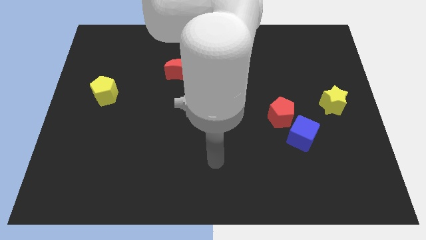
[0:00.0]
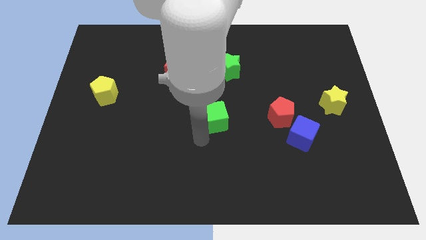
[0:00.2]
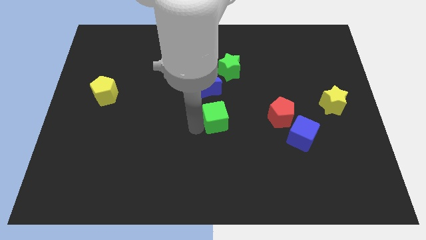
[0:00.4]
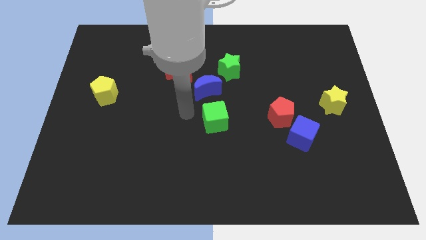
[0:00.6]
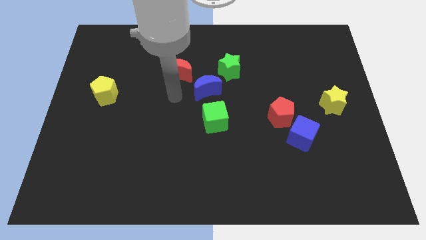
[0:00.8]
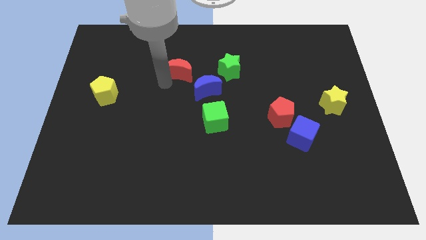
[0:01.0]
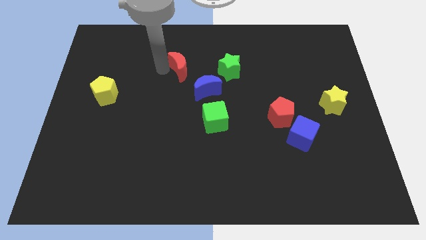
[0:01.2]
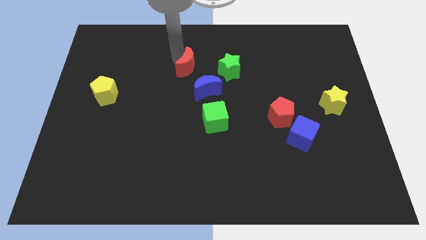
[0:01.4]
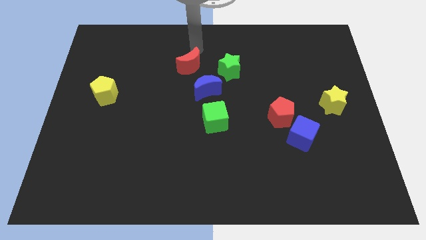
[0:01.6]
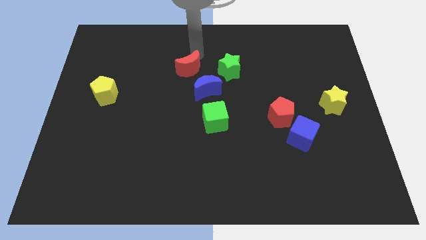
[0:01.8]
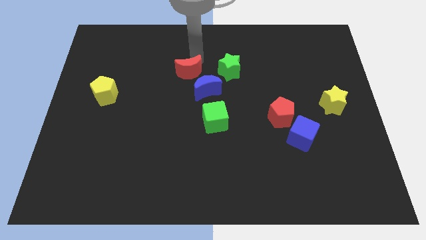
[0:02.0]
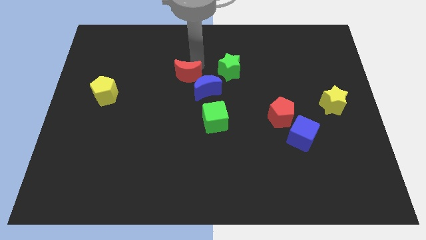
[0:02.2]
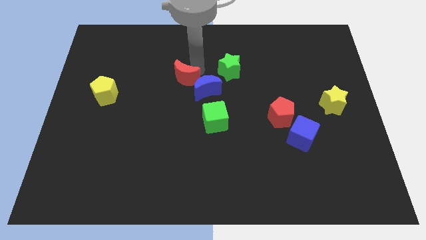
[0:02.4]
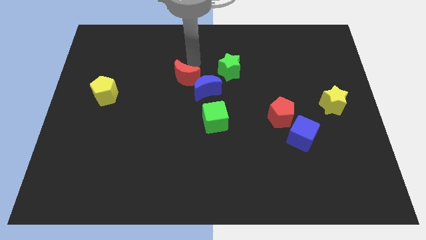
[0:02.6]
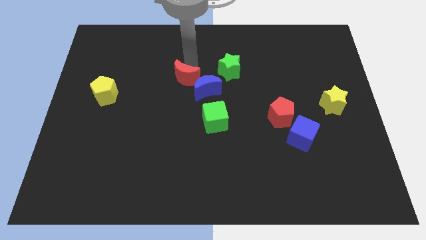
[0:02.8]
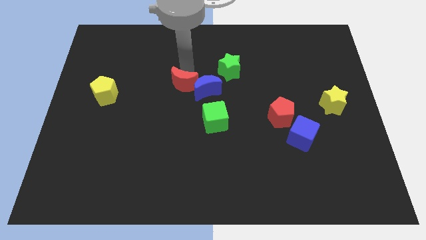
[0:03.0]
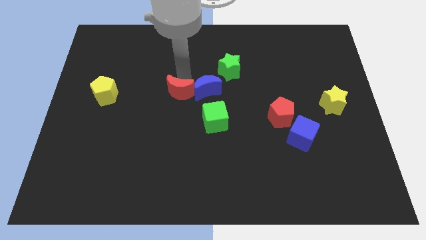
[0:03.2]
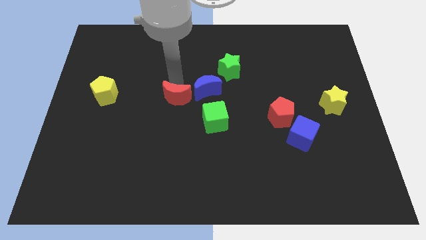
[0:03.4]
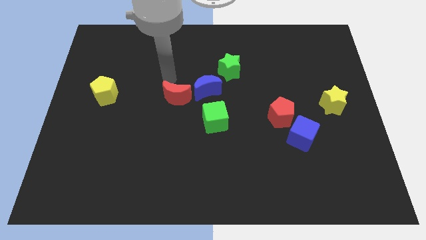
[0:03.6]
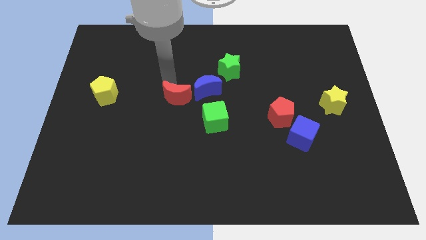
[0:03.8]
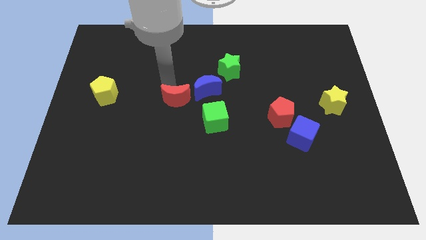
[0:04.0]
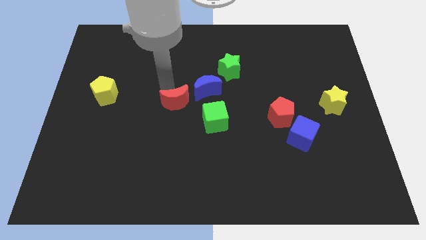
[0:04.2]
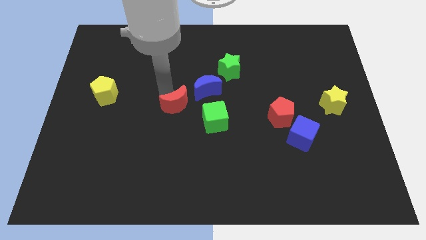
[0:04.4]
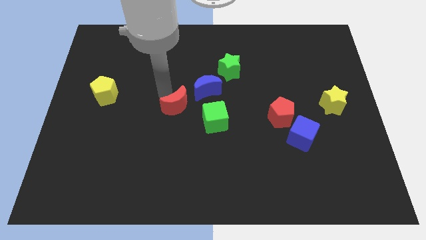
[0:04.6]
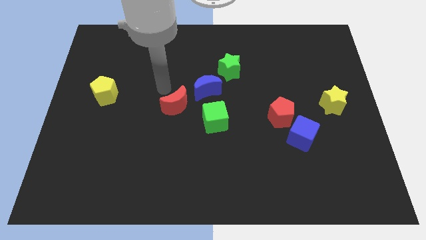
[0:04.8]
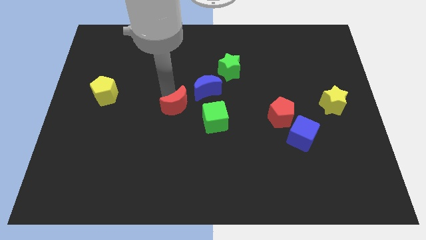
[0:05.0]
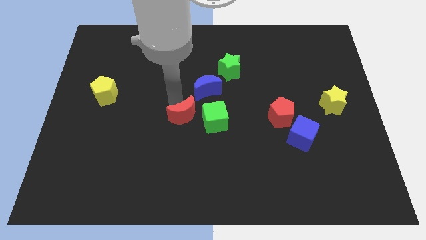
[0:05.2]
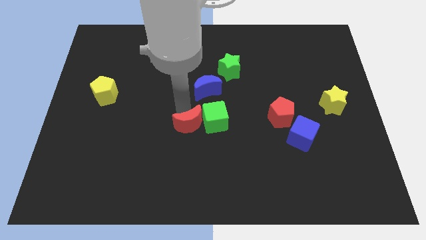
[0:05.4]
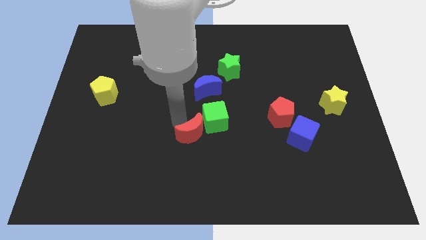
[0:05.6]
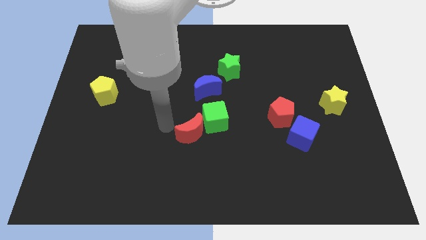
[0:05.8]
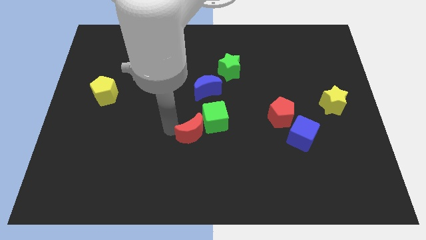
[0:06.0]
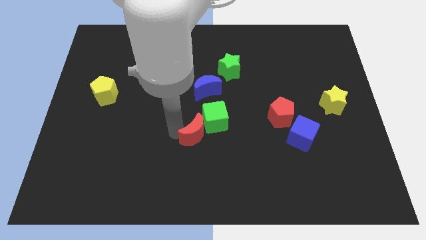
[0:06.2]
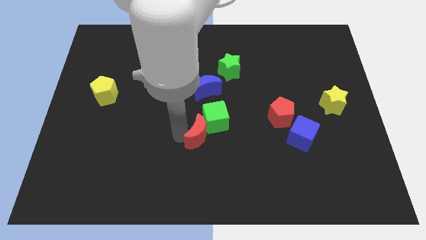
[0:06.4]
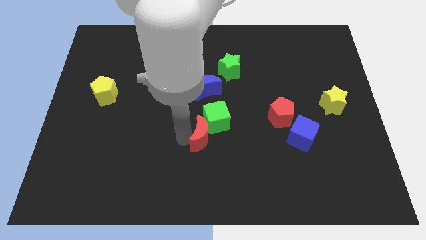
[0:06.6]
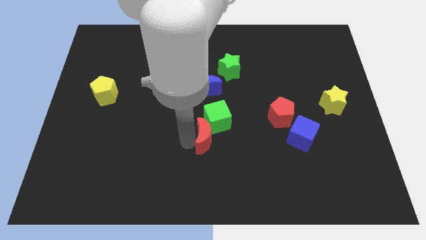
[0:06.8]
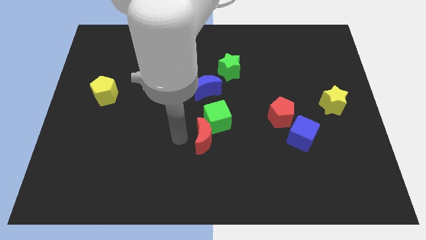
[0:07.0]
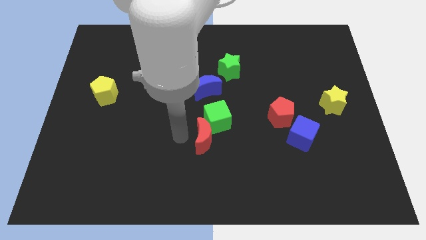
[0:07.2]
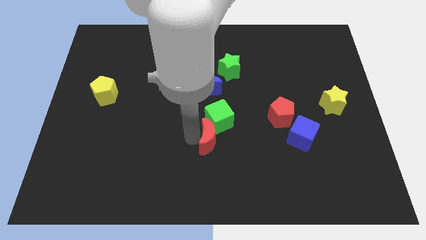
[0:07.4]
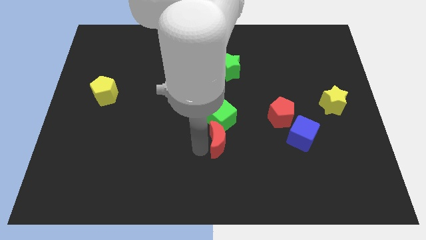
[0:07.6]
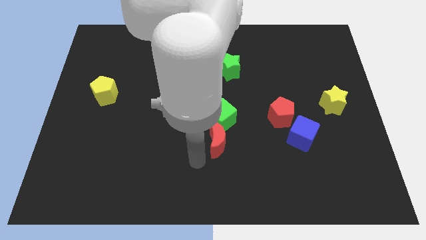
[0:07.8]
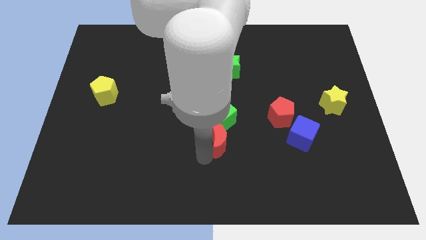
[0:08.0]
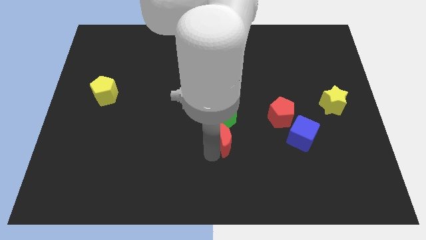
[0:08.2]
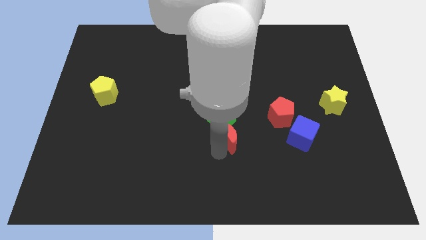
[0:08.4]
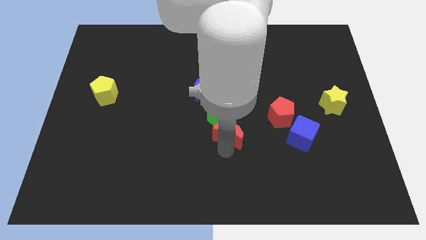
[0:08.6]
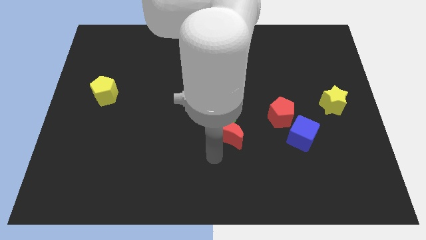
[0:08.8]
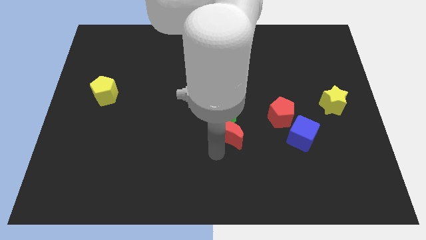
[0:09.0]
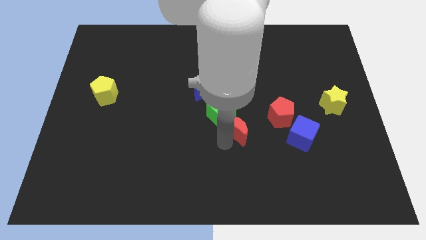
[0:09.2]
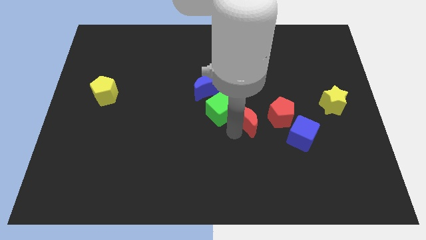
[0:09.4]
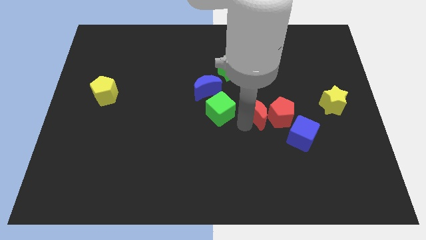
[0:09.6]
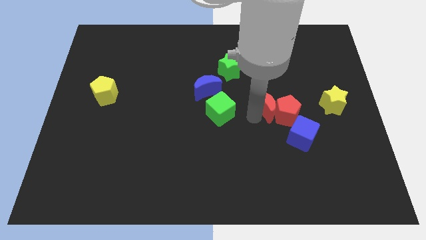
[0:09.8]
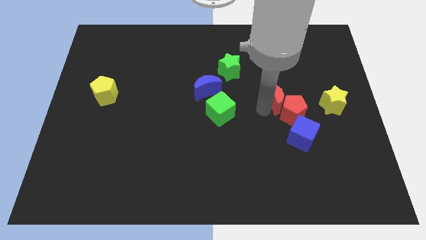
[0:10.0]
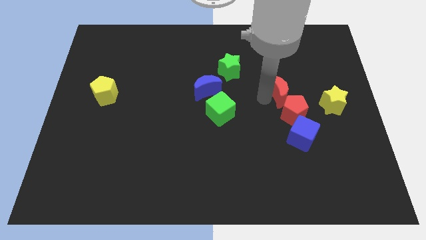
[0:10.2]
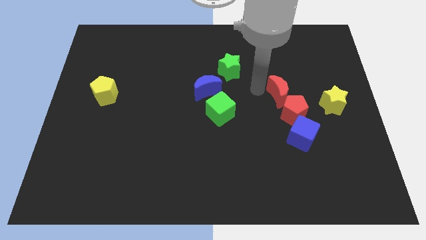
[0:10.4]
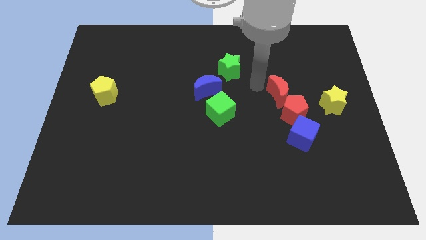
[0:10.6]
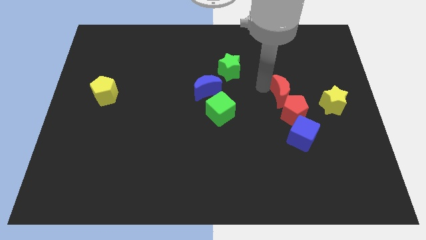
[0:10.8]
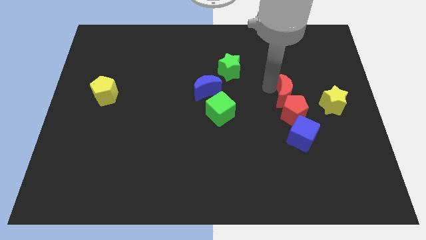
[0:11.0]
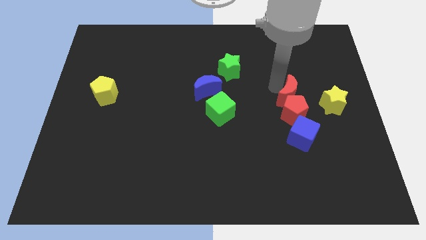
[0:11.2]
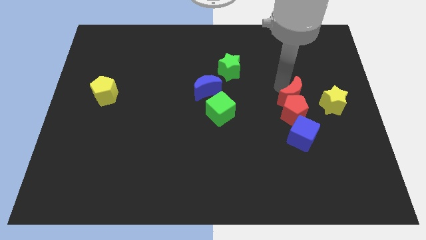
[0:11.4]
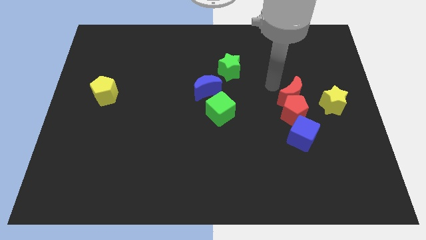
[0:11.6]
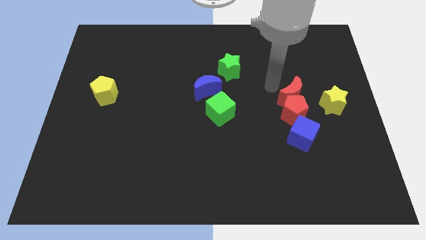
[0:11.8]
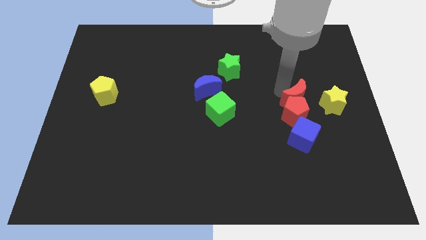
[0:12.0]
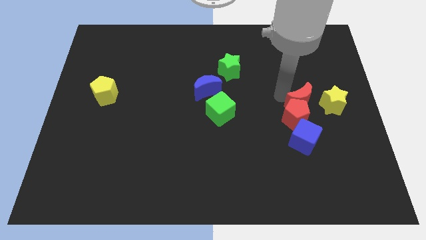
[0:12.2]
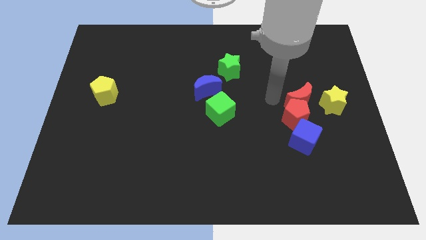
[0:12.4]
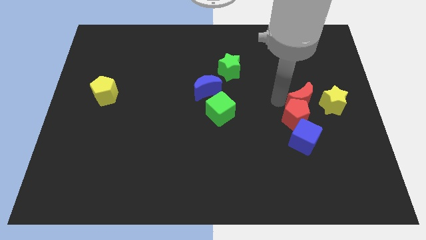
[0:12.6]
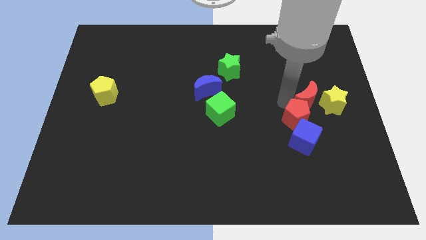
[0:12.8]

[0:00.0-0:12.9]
push the red moon towards the yellow star

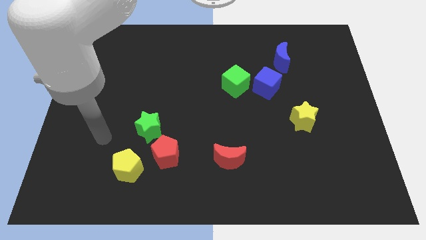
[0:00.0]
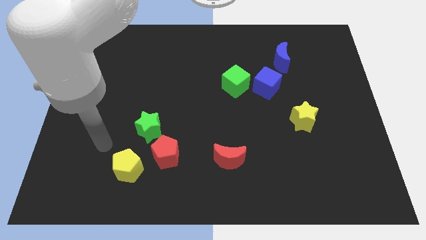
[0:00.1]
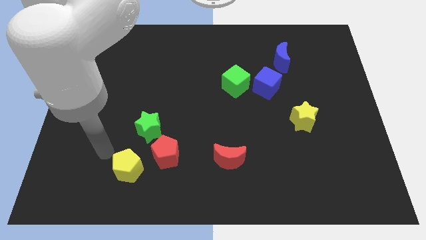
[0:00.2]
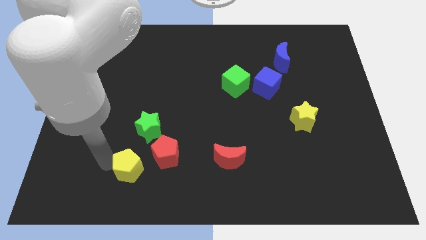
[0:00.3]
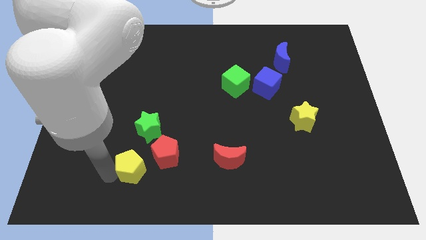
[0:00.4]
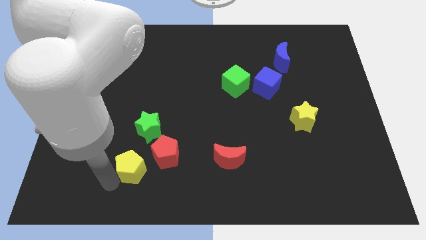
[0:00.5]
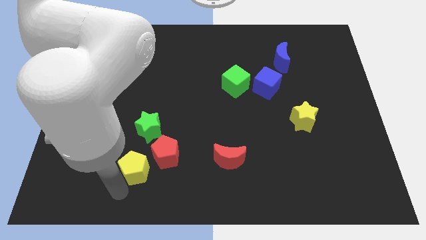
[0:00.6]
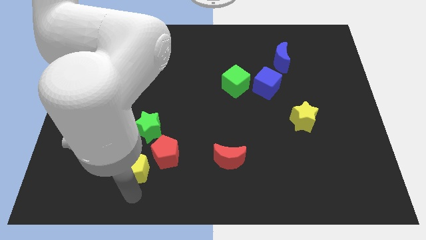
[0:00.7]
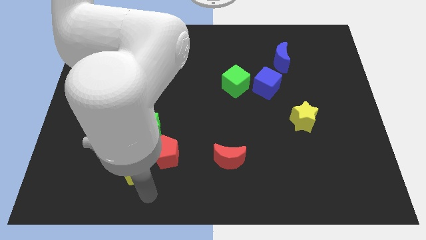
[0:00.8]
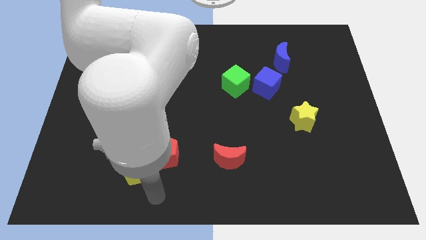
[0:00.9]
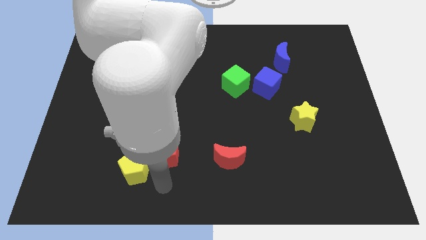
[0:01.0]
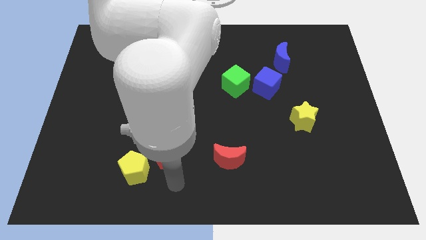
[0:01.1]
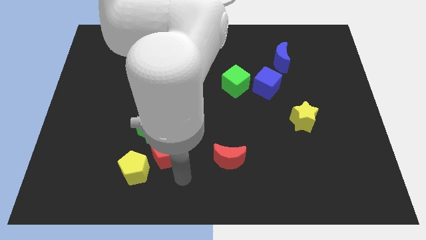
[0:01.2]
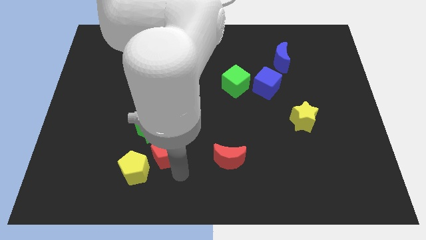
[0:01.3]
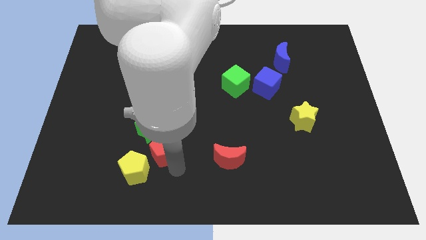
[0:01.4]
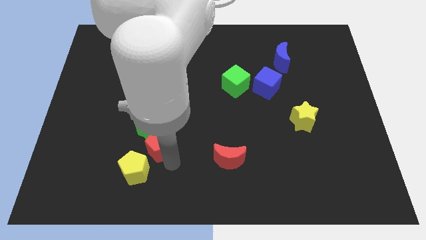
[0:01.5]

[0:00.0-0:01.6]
move the red pentagon to the green star
